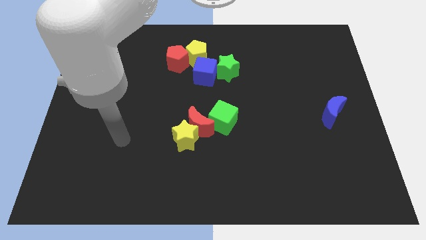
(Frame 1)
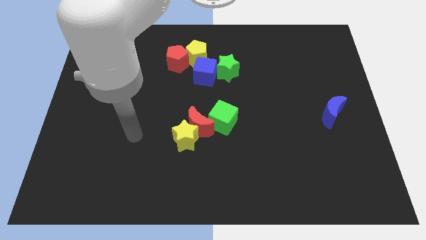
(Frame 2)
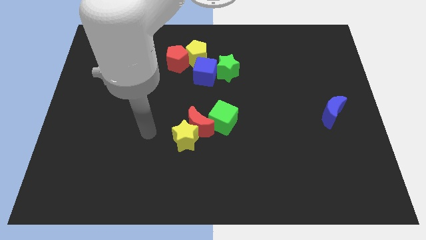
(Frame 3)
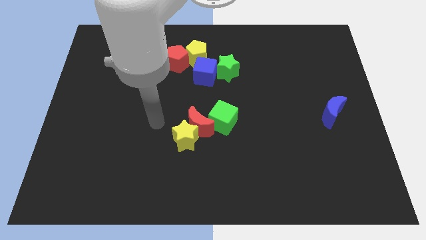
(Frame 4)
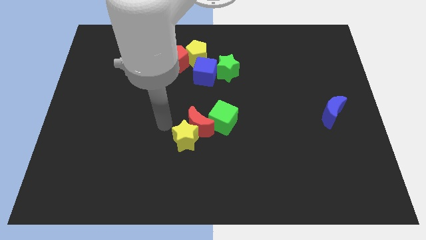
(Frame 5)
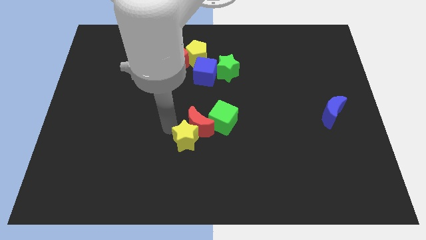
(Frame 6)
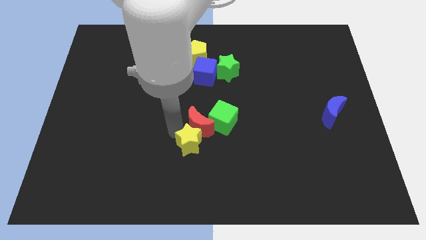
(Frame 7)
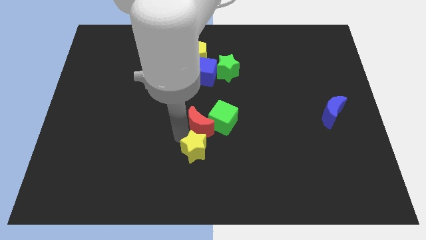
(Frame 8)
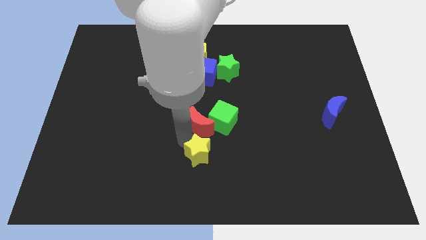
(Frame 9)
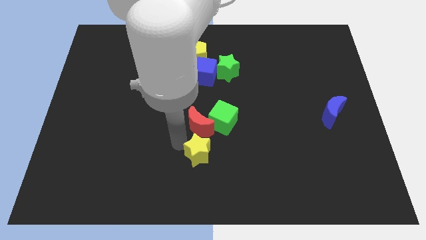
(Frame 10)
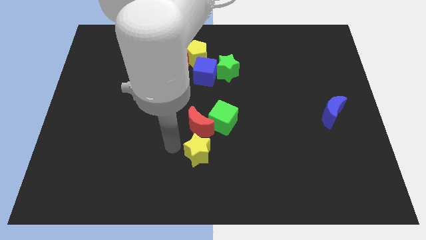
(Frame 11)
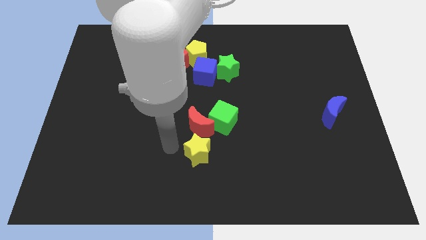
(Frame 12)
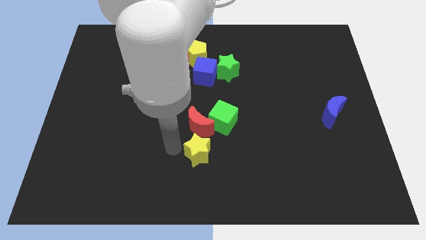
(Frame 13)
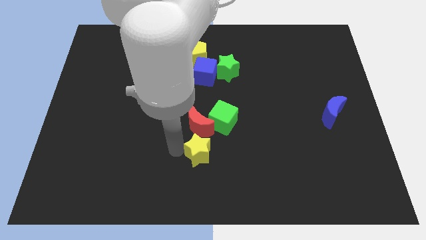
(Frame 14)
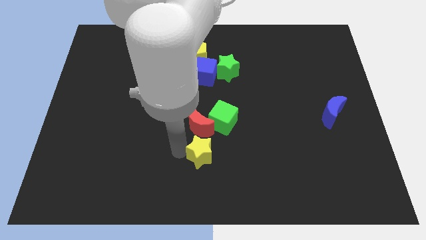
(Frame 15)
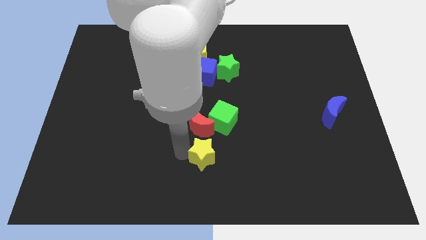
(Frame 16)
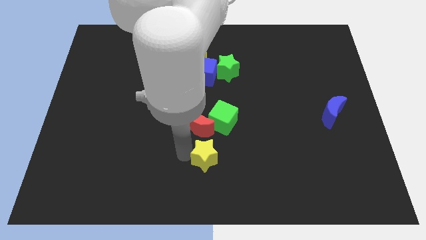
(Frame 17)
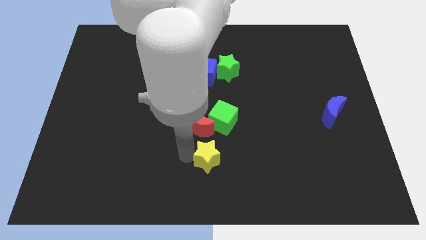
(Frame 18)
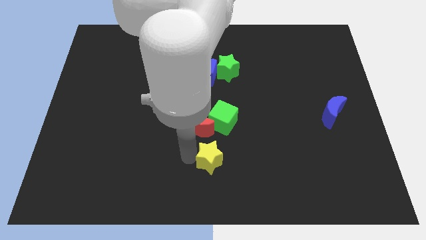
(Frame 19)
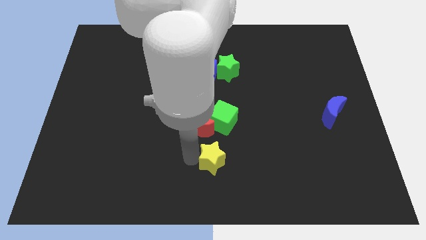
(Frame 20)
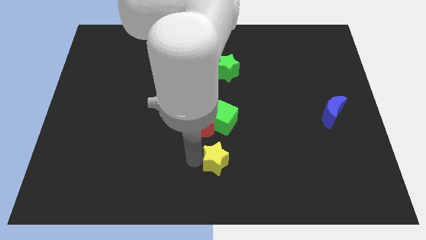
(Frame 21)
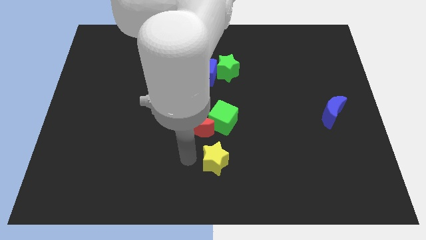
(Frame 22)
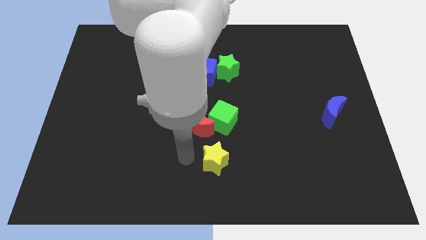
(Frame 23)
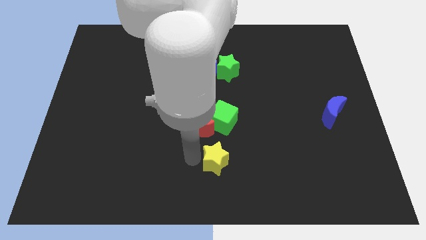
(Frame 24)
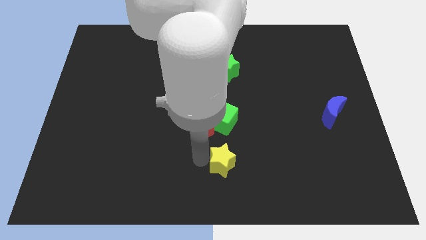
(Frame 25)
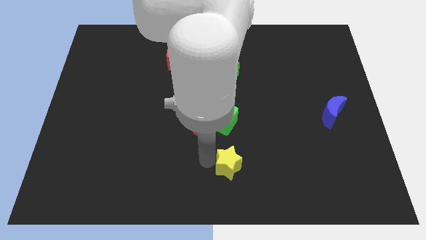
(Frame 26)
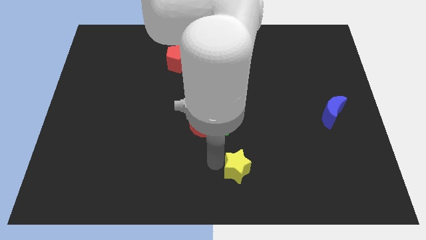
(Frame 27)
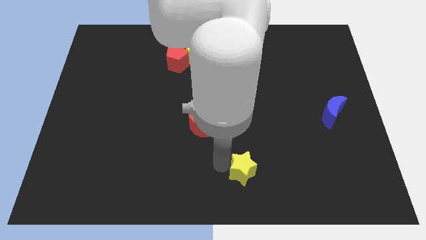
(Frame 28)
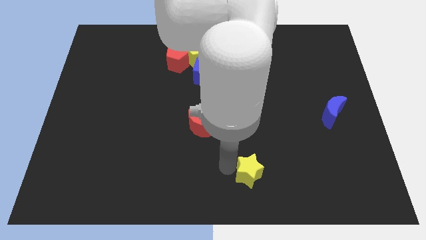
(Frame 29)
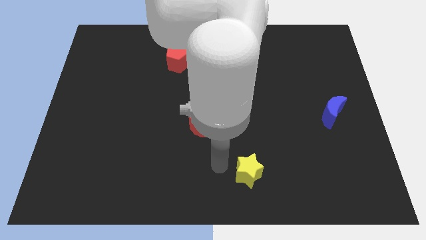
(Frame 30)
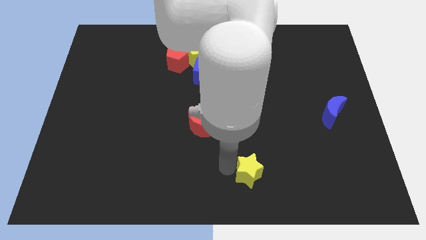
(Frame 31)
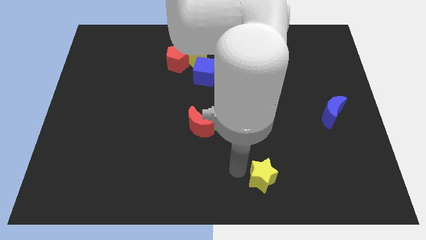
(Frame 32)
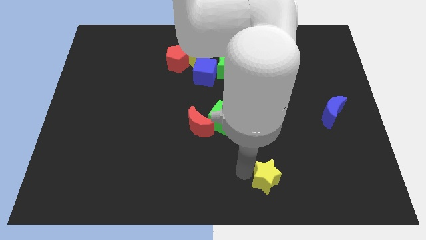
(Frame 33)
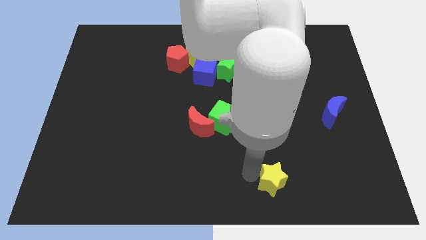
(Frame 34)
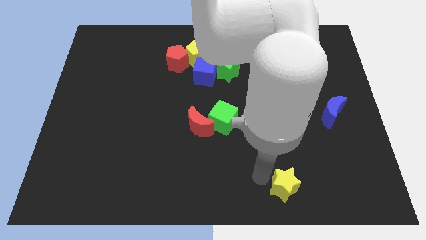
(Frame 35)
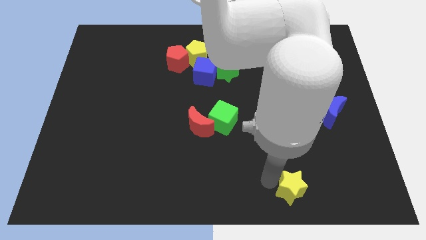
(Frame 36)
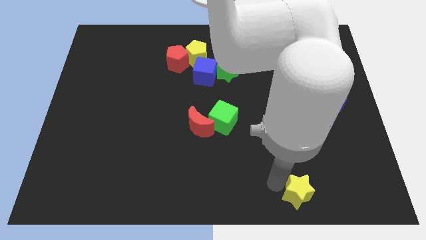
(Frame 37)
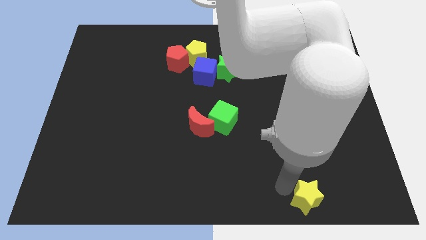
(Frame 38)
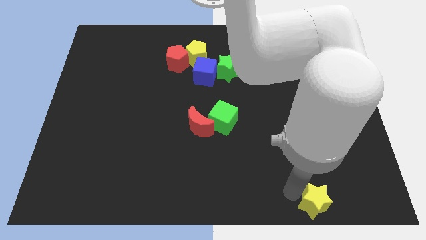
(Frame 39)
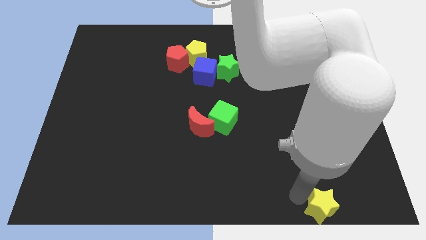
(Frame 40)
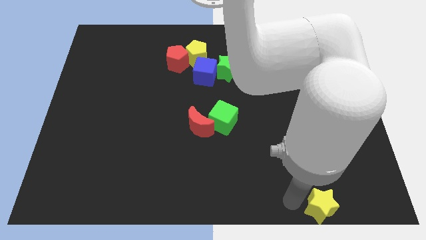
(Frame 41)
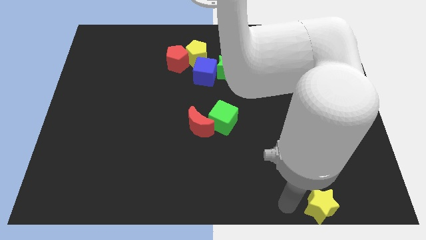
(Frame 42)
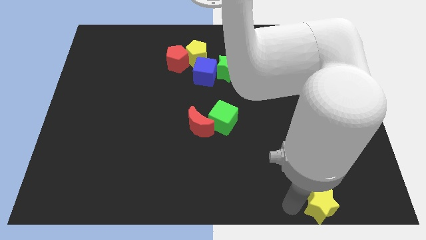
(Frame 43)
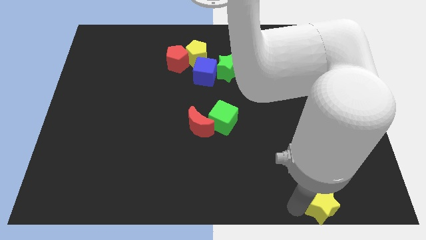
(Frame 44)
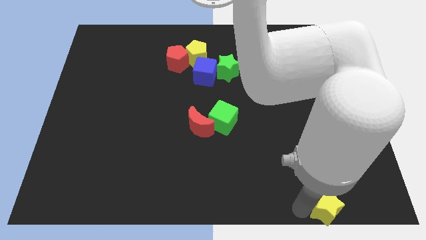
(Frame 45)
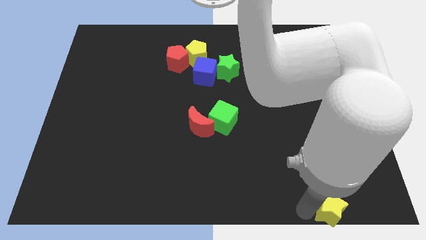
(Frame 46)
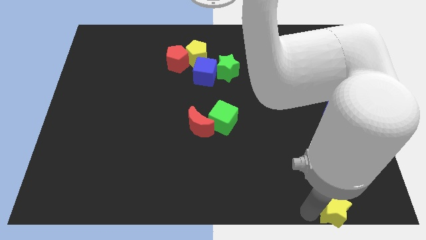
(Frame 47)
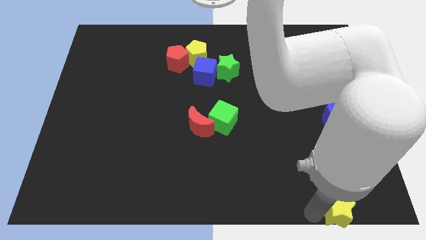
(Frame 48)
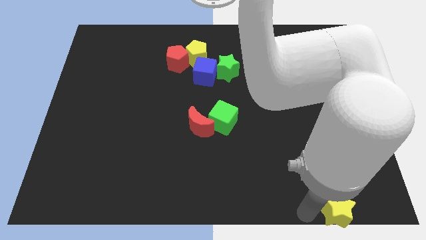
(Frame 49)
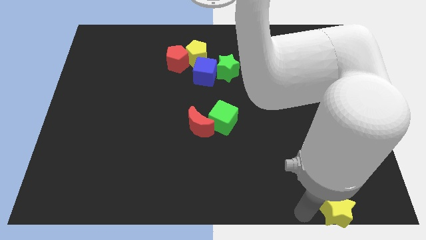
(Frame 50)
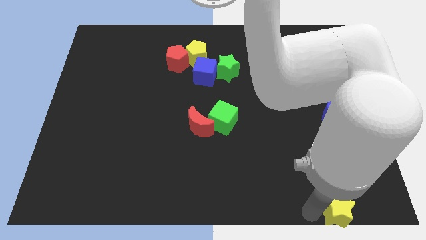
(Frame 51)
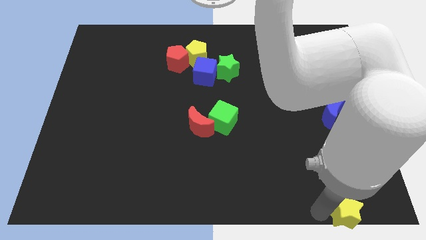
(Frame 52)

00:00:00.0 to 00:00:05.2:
move the yellow star to the bottom right
